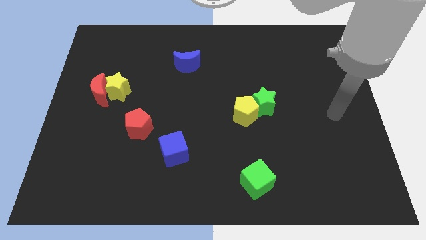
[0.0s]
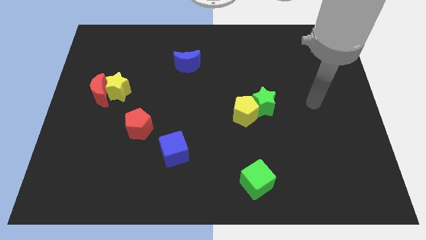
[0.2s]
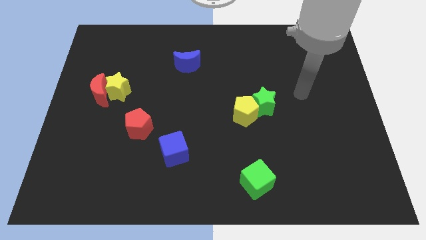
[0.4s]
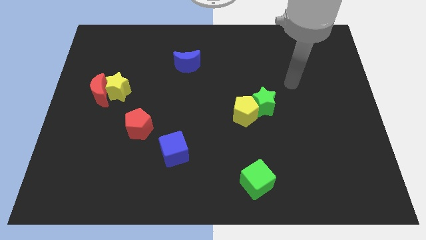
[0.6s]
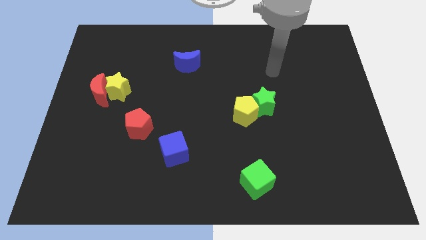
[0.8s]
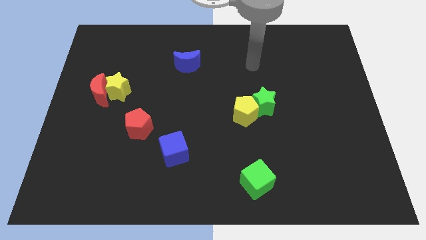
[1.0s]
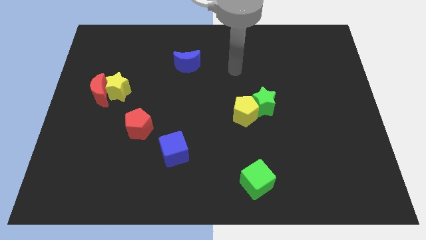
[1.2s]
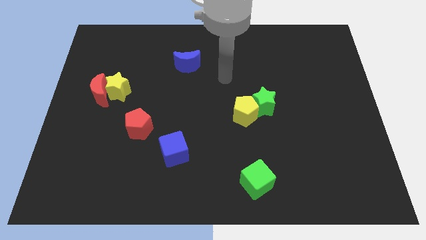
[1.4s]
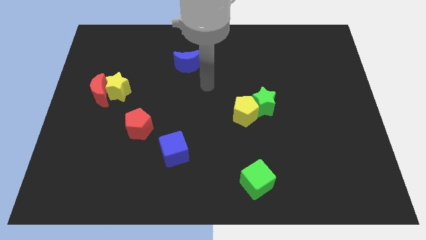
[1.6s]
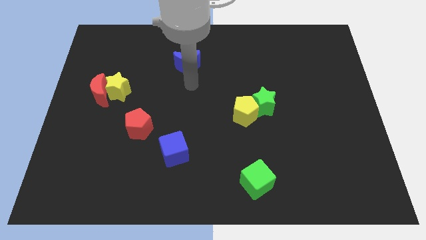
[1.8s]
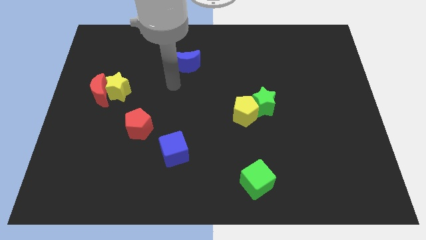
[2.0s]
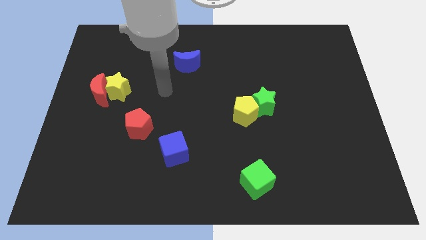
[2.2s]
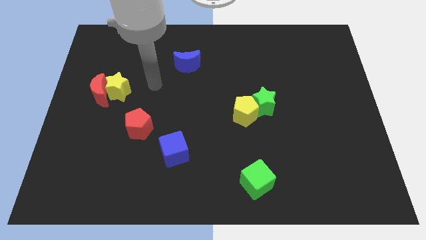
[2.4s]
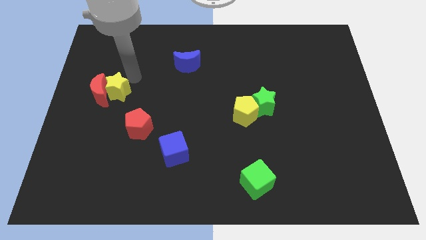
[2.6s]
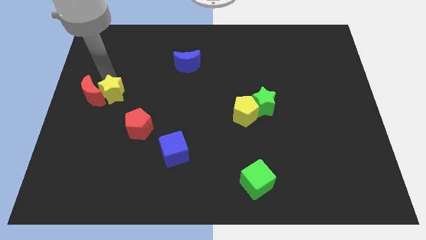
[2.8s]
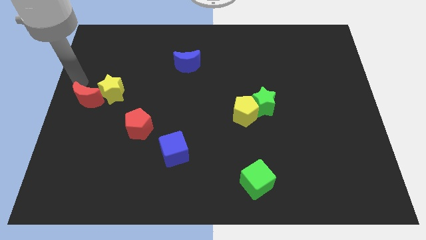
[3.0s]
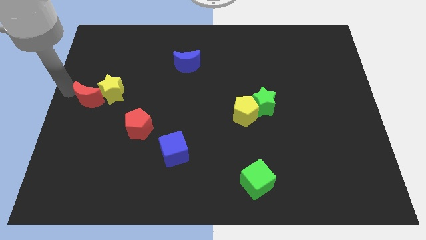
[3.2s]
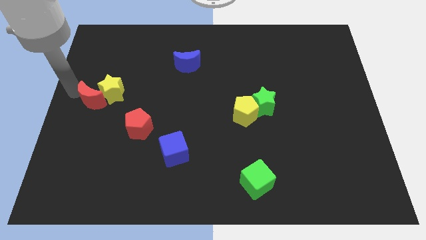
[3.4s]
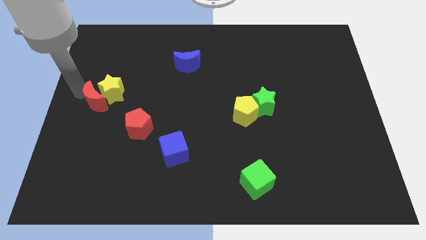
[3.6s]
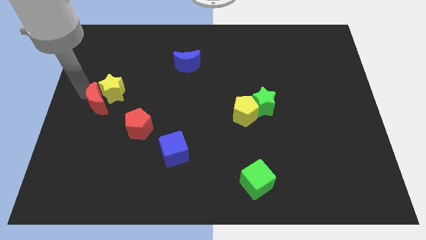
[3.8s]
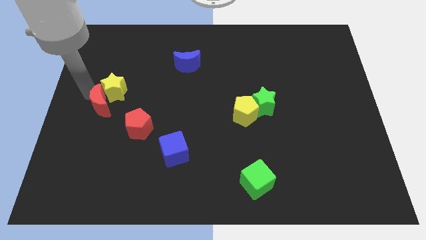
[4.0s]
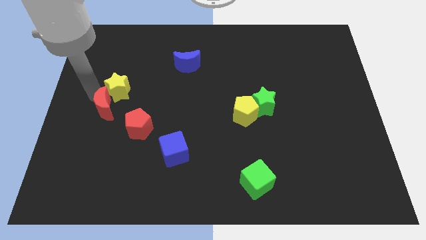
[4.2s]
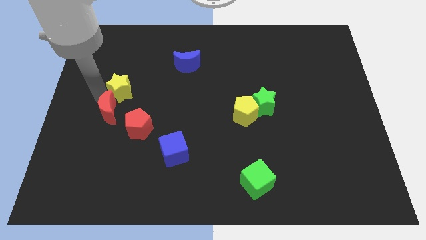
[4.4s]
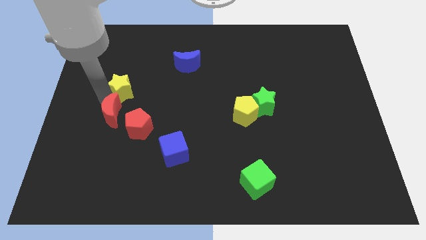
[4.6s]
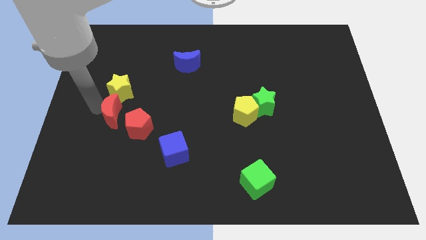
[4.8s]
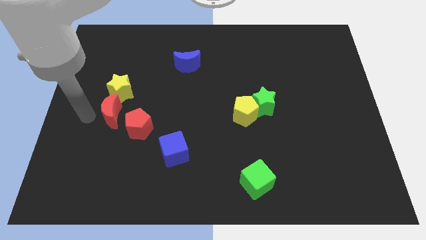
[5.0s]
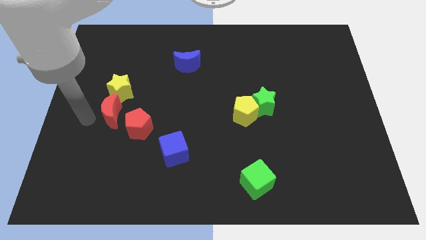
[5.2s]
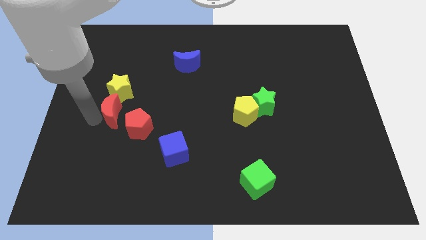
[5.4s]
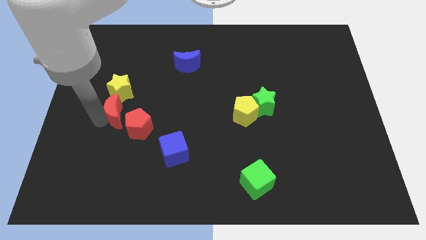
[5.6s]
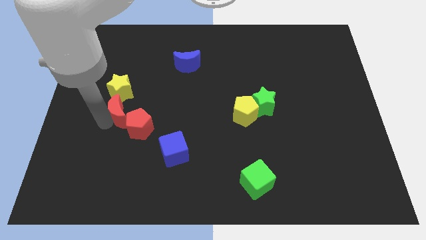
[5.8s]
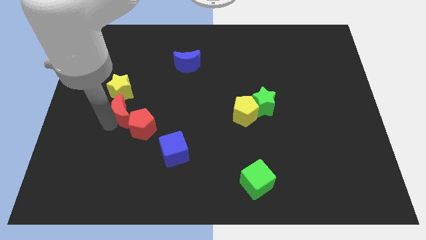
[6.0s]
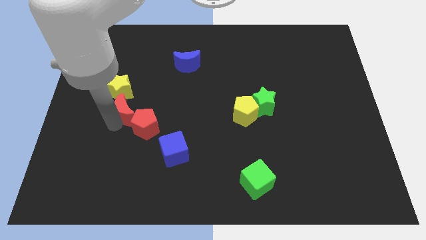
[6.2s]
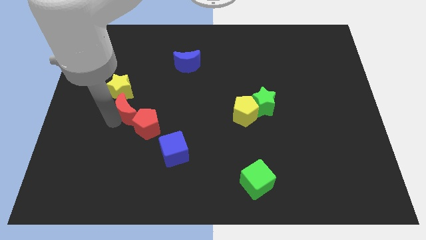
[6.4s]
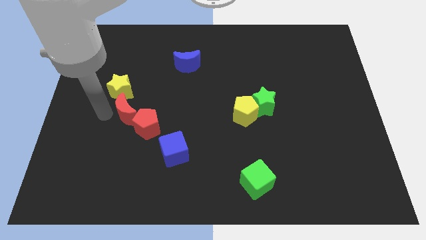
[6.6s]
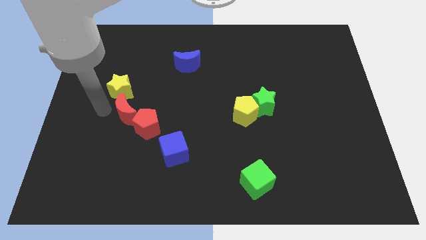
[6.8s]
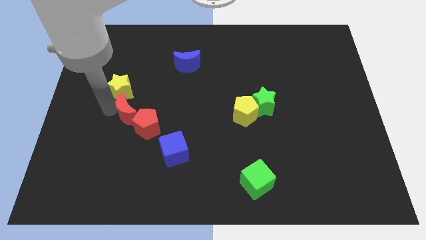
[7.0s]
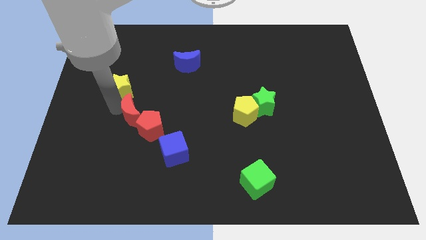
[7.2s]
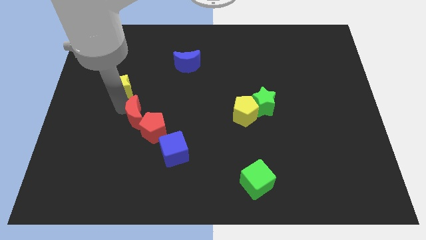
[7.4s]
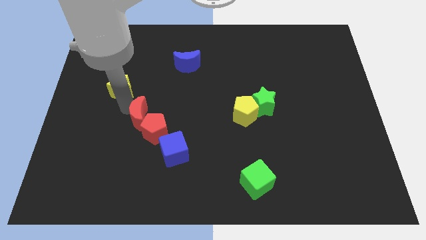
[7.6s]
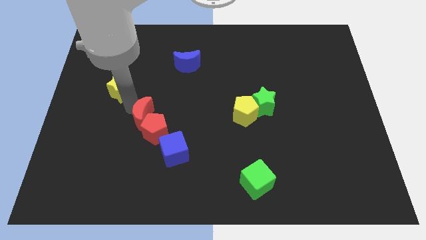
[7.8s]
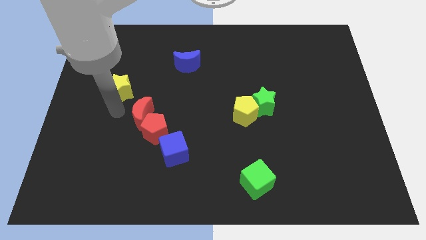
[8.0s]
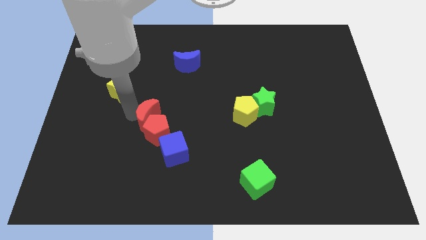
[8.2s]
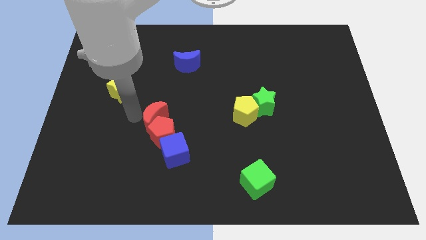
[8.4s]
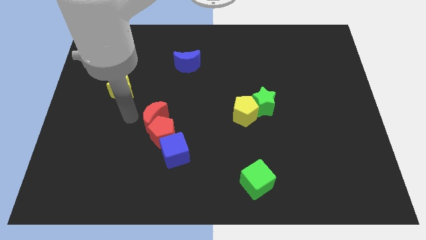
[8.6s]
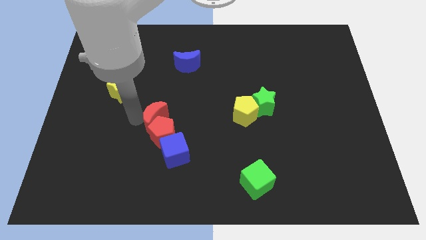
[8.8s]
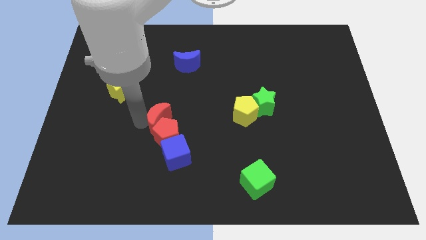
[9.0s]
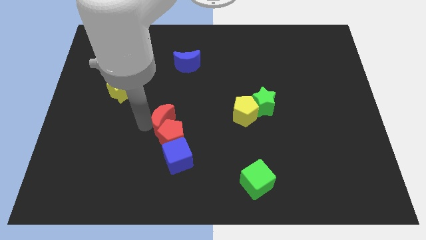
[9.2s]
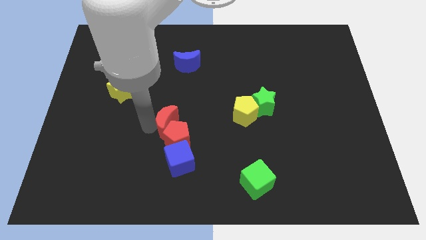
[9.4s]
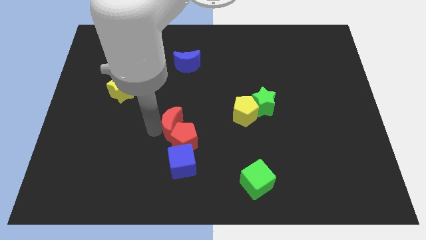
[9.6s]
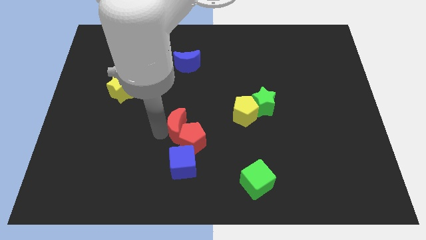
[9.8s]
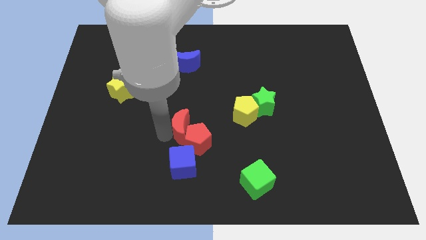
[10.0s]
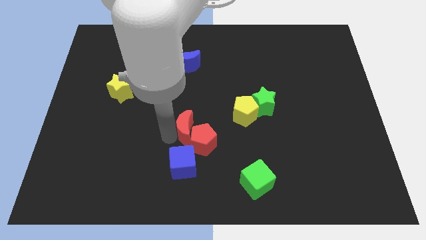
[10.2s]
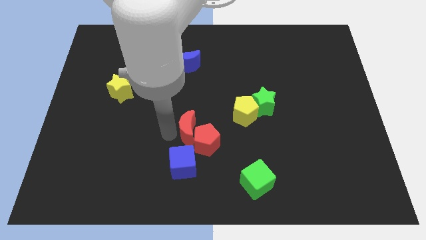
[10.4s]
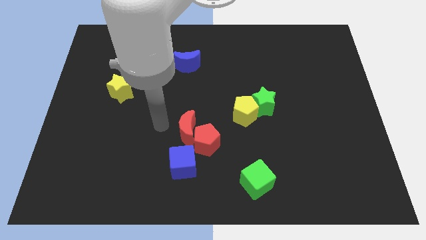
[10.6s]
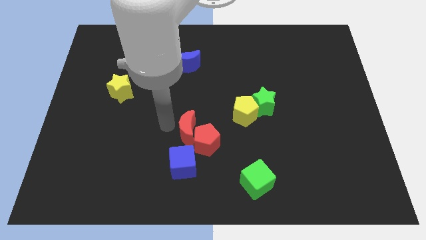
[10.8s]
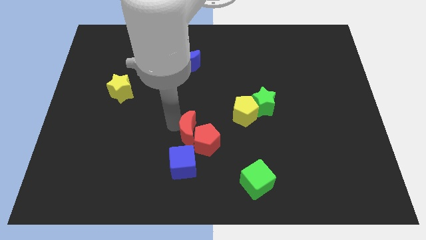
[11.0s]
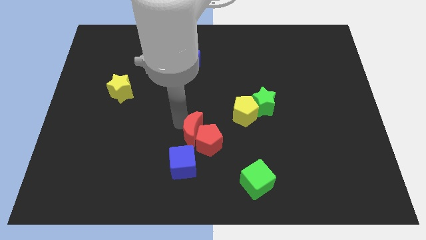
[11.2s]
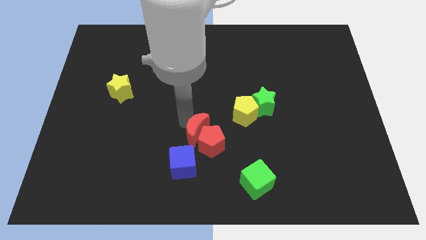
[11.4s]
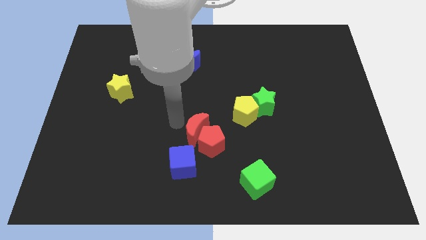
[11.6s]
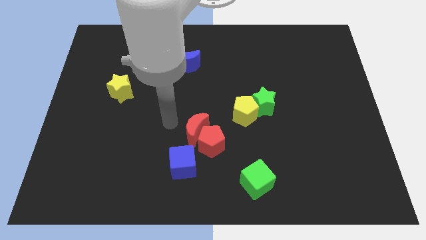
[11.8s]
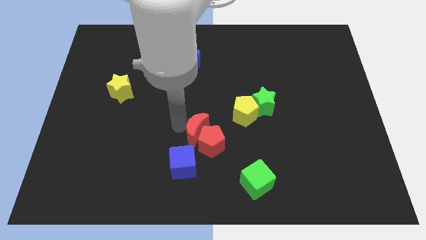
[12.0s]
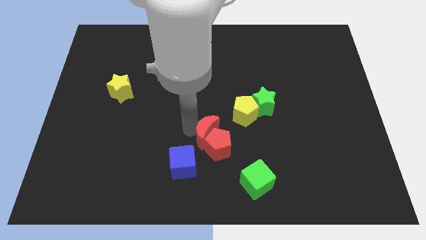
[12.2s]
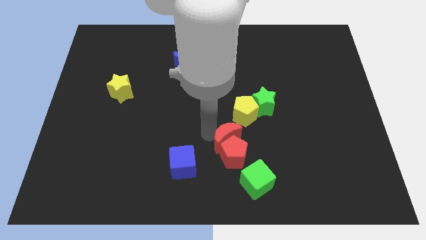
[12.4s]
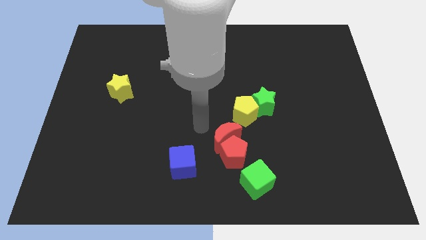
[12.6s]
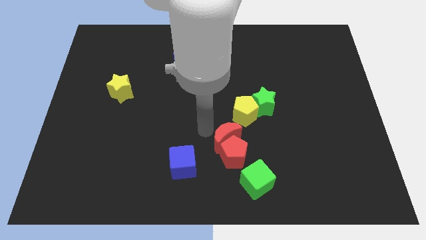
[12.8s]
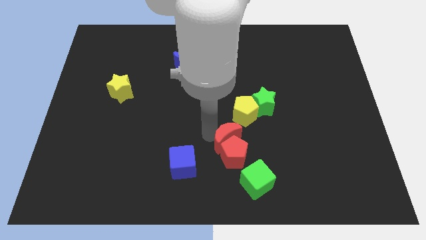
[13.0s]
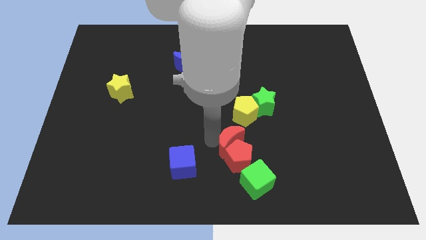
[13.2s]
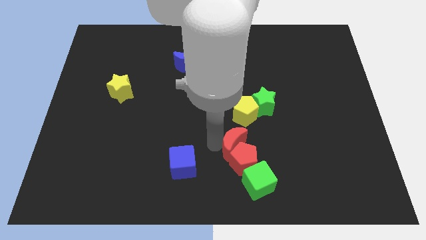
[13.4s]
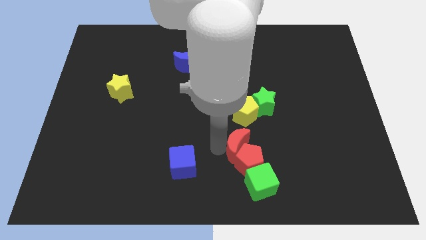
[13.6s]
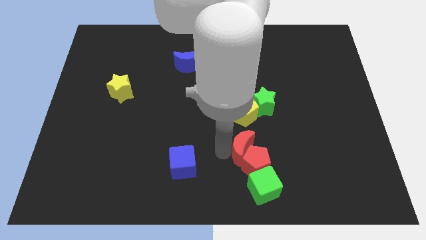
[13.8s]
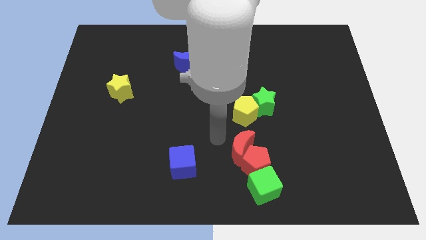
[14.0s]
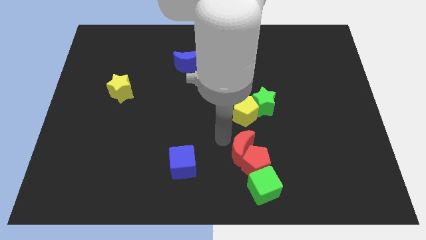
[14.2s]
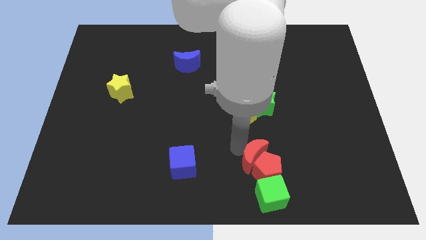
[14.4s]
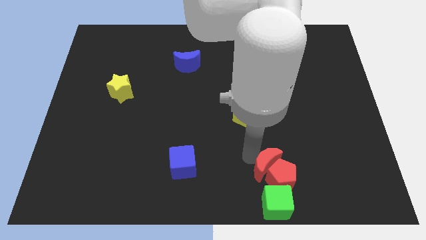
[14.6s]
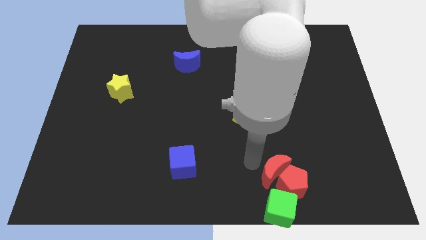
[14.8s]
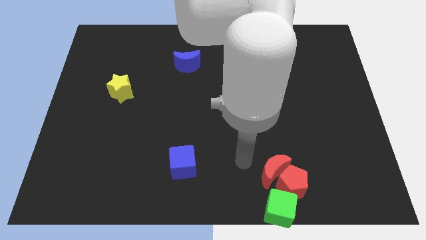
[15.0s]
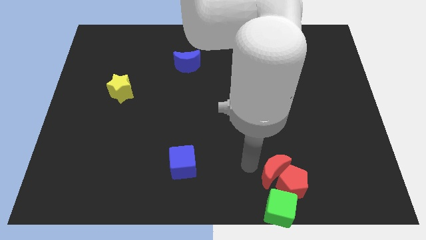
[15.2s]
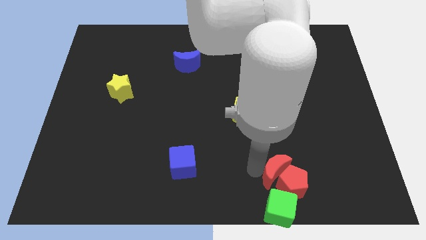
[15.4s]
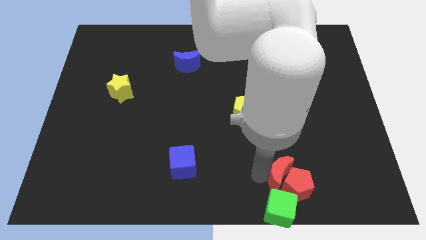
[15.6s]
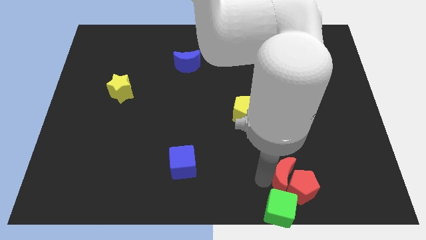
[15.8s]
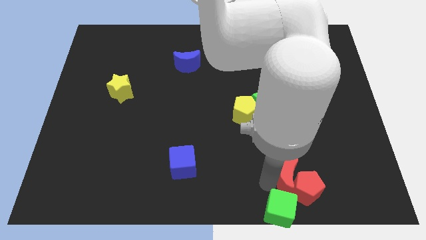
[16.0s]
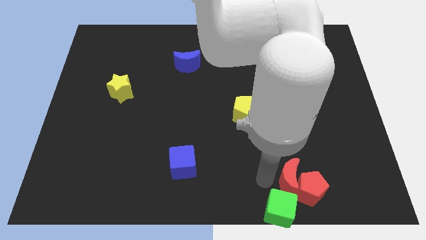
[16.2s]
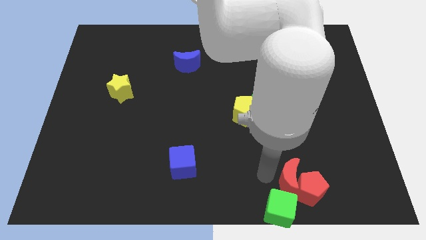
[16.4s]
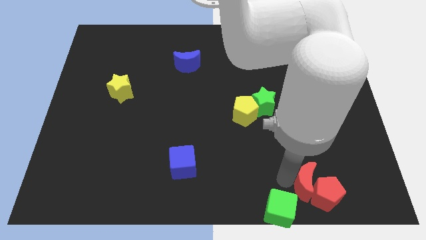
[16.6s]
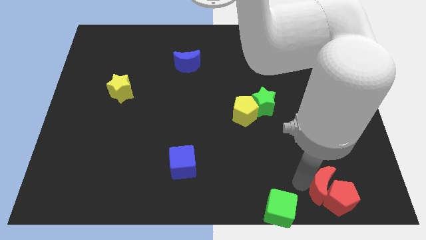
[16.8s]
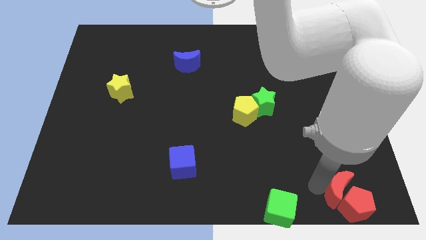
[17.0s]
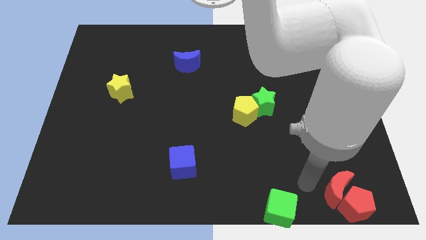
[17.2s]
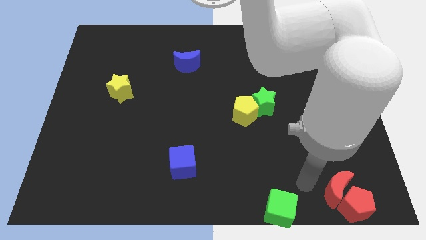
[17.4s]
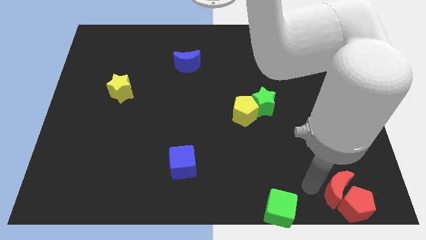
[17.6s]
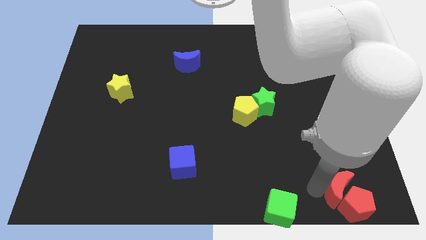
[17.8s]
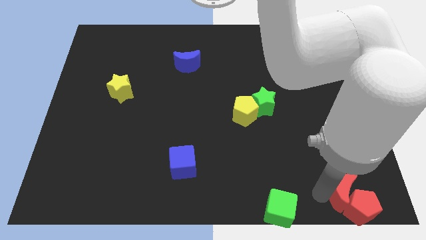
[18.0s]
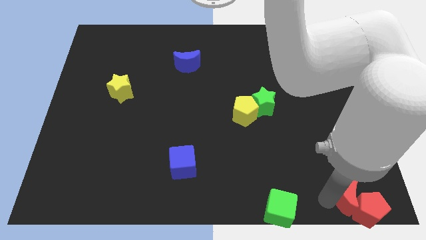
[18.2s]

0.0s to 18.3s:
move the red moon to the lower right corner
